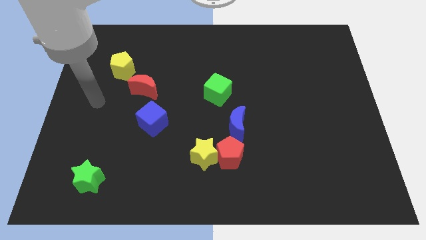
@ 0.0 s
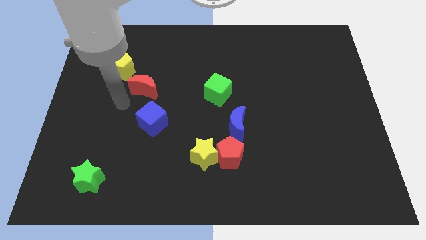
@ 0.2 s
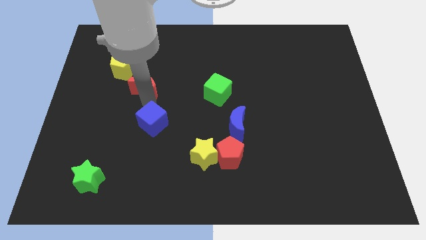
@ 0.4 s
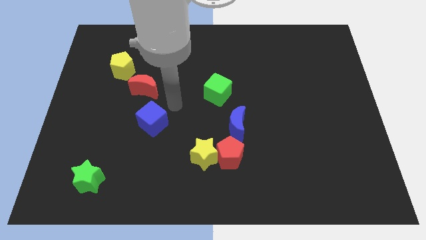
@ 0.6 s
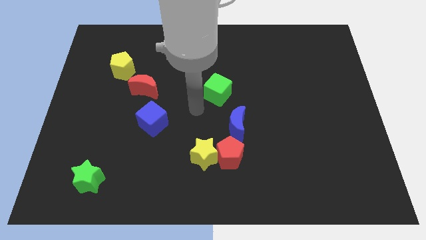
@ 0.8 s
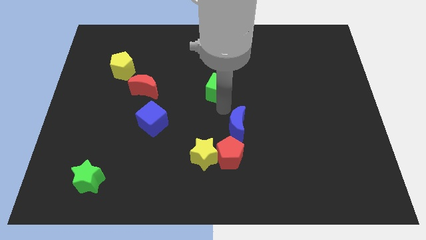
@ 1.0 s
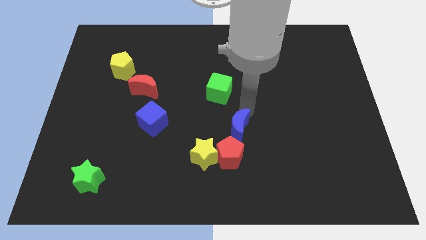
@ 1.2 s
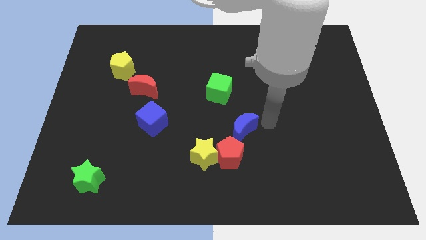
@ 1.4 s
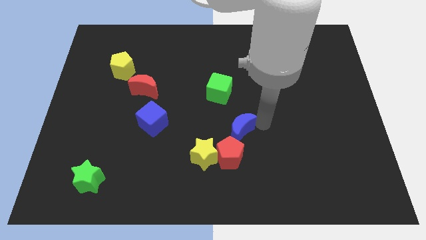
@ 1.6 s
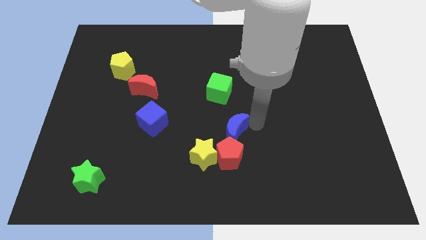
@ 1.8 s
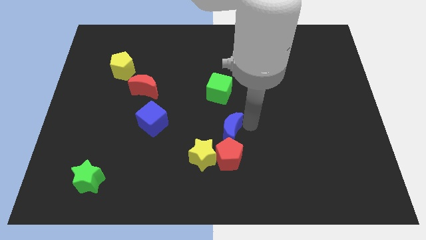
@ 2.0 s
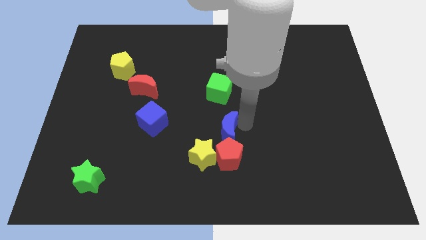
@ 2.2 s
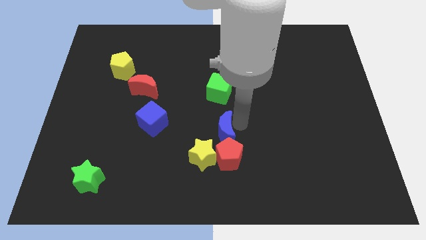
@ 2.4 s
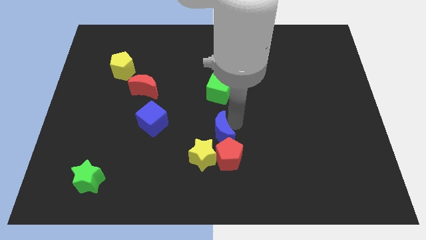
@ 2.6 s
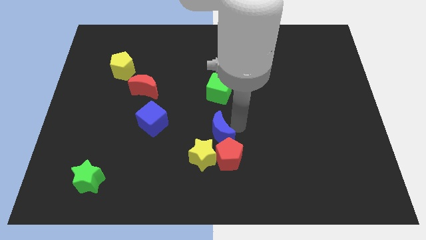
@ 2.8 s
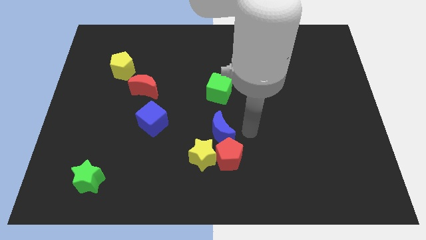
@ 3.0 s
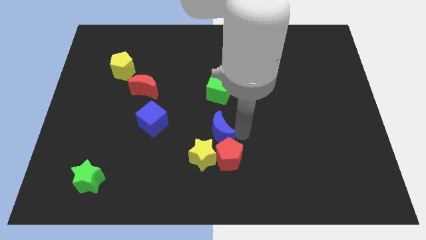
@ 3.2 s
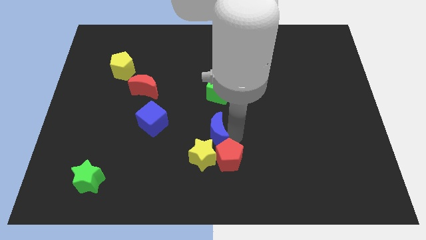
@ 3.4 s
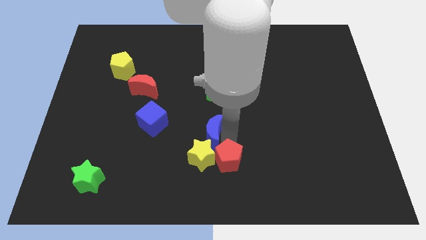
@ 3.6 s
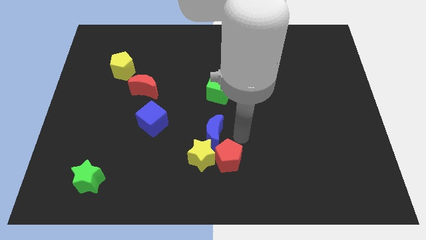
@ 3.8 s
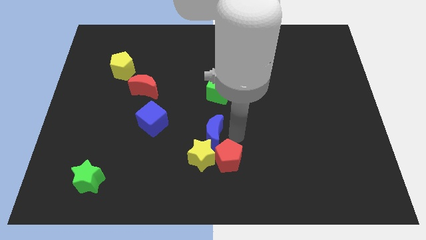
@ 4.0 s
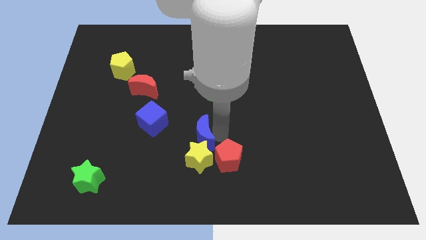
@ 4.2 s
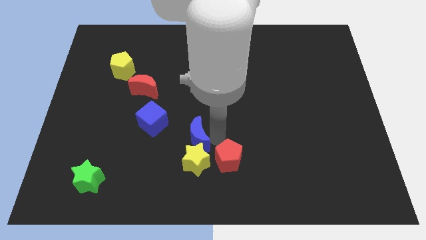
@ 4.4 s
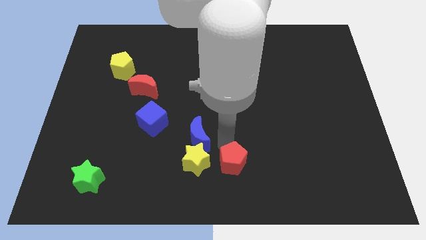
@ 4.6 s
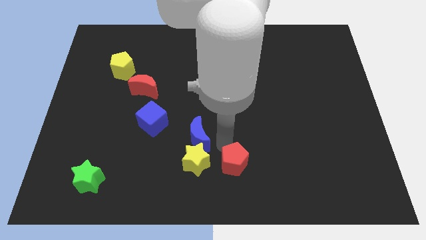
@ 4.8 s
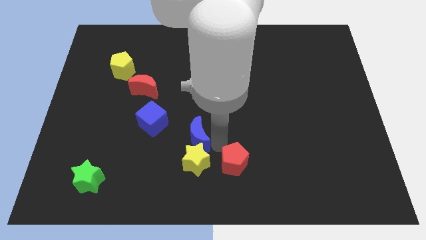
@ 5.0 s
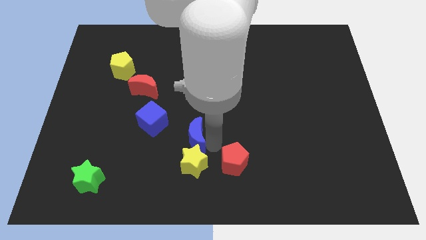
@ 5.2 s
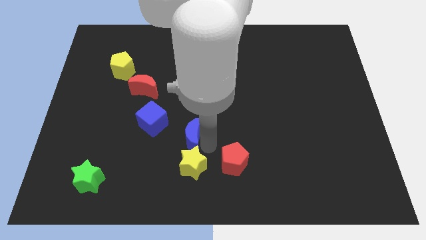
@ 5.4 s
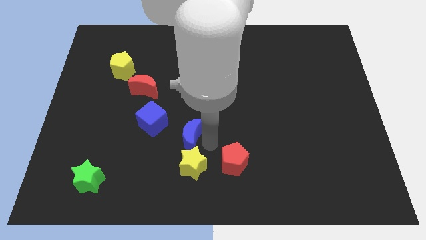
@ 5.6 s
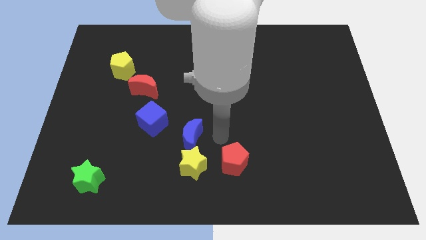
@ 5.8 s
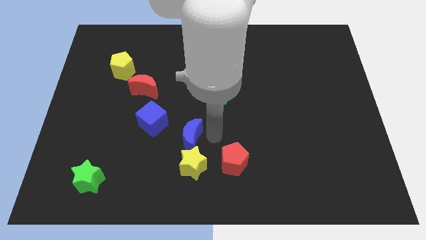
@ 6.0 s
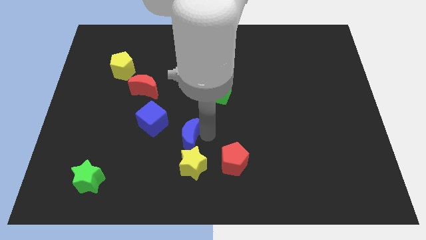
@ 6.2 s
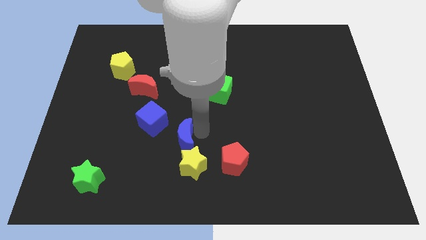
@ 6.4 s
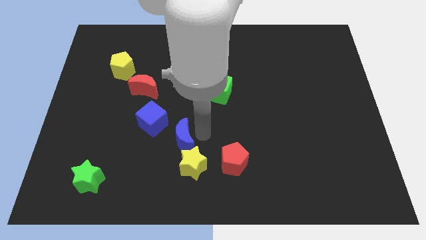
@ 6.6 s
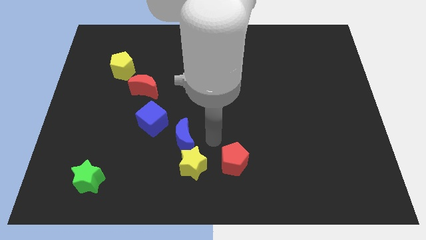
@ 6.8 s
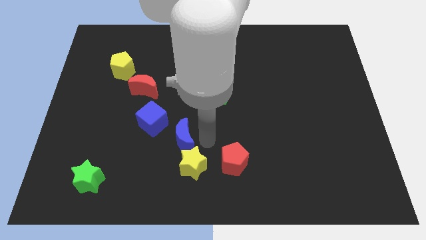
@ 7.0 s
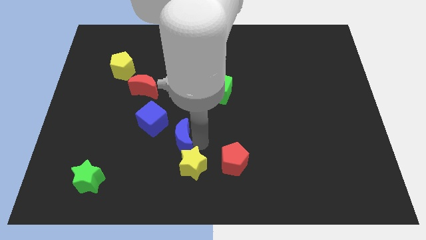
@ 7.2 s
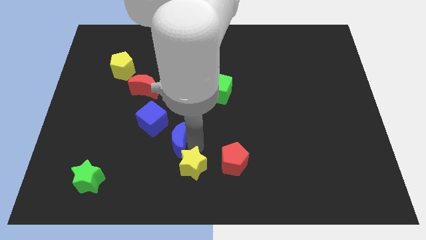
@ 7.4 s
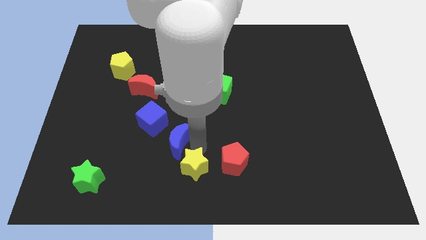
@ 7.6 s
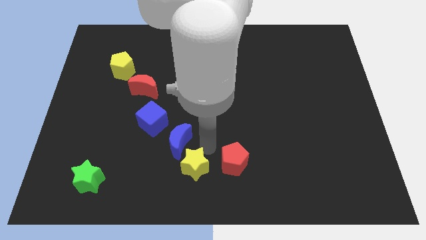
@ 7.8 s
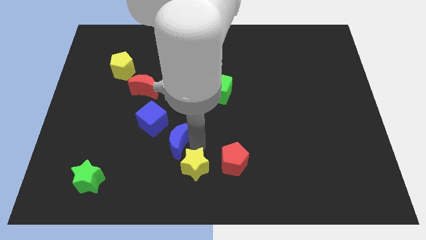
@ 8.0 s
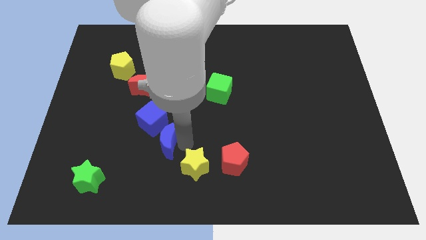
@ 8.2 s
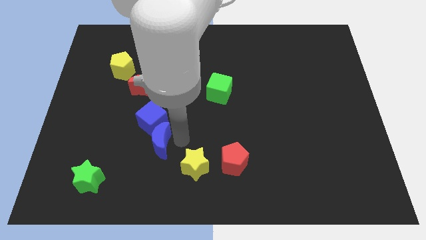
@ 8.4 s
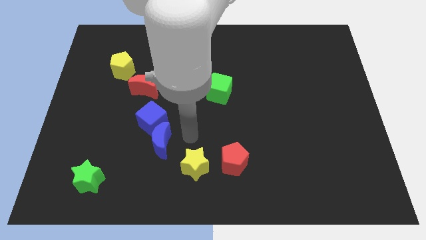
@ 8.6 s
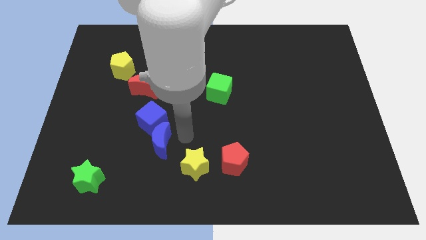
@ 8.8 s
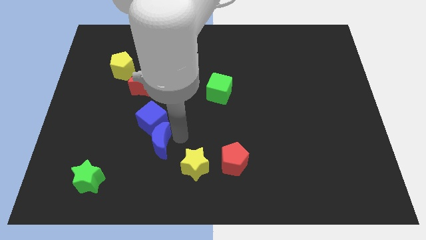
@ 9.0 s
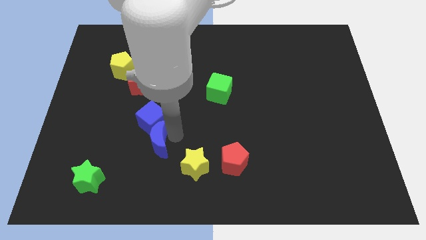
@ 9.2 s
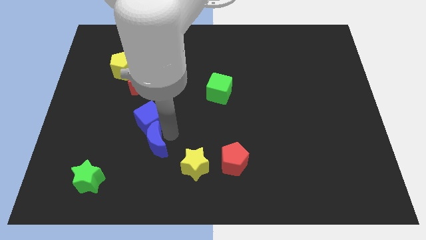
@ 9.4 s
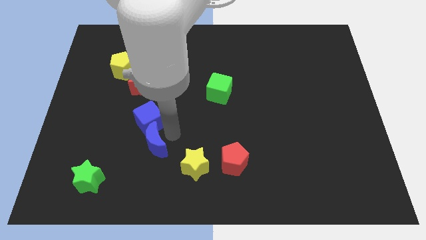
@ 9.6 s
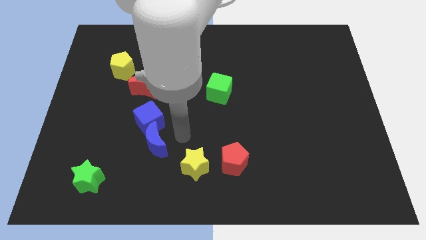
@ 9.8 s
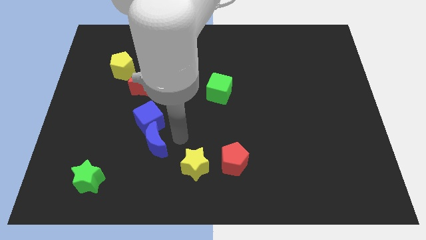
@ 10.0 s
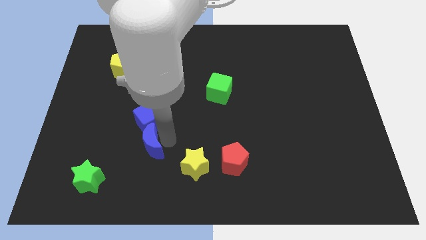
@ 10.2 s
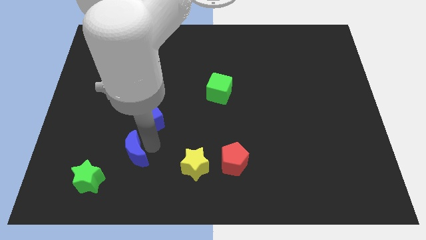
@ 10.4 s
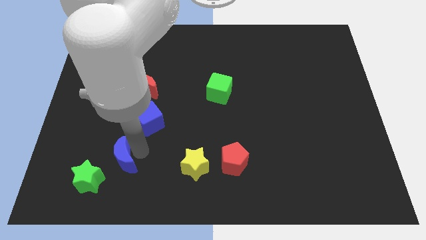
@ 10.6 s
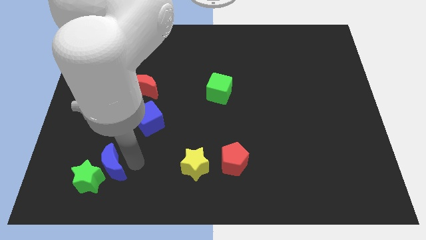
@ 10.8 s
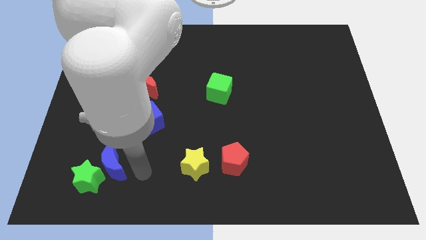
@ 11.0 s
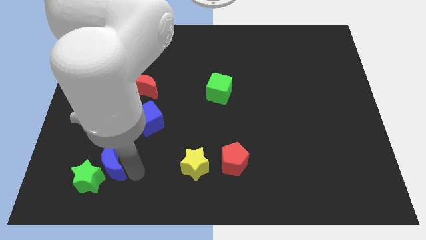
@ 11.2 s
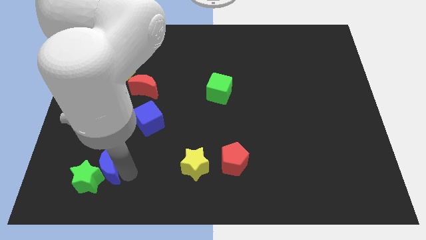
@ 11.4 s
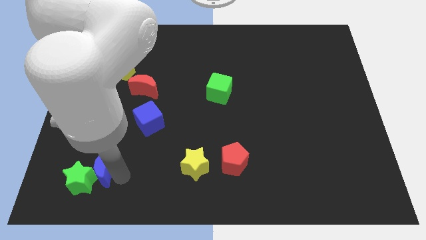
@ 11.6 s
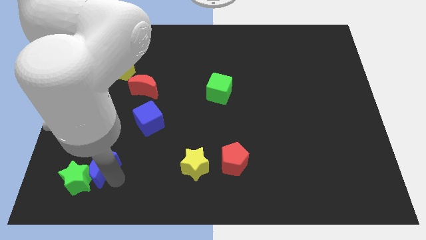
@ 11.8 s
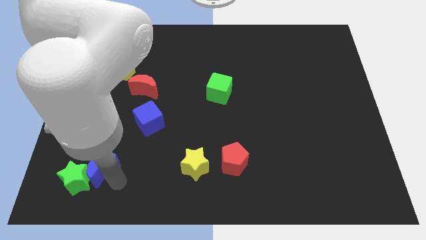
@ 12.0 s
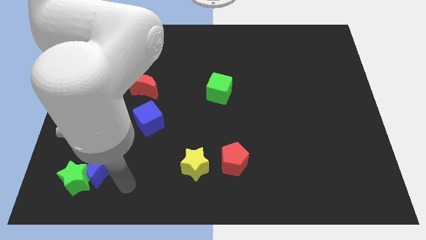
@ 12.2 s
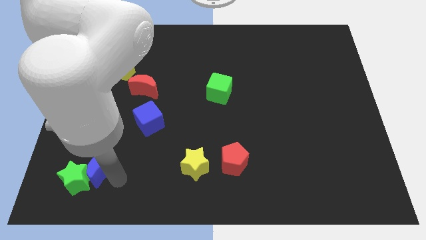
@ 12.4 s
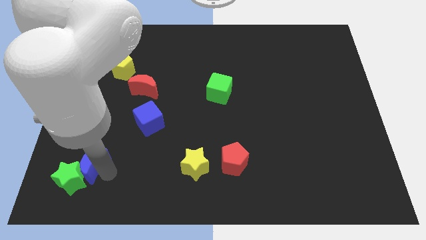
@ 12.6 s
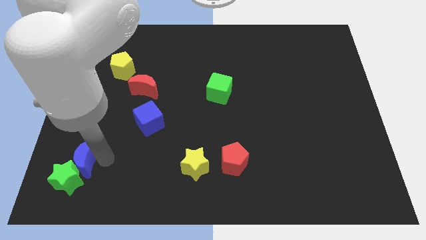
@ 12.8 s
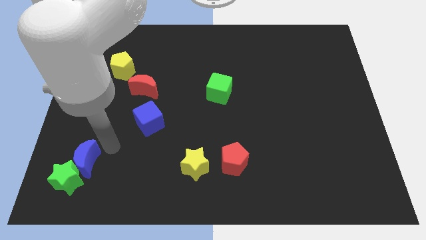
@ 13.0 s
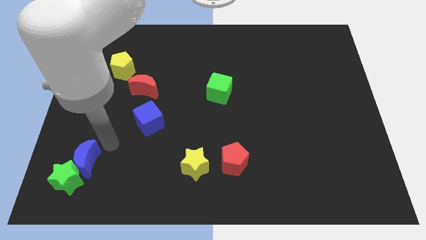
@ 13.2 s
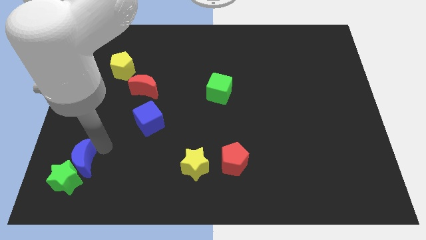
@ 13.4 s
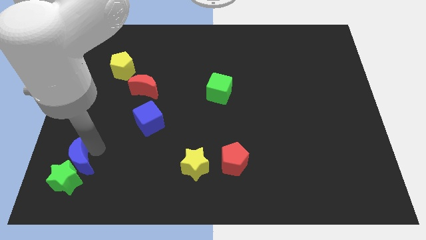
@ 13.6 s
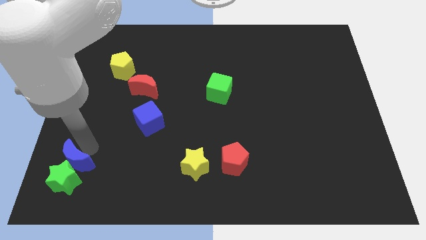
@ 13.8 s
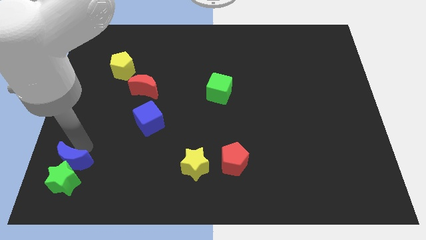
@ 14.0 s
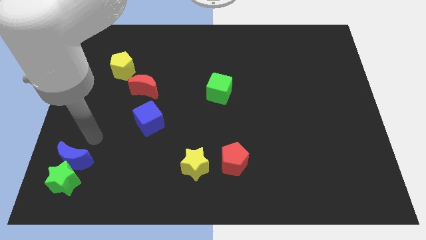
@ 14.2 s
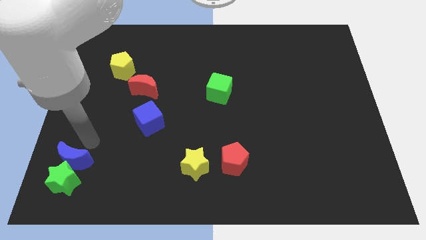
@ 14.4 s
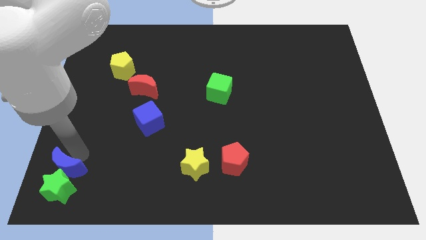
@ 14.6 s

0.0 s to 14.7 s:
slide the blue moon to the bottom left corner

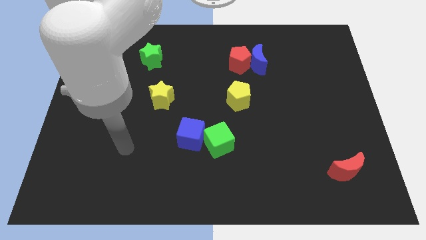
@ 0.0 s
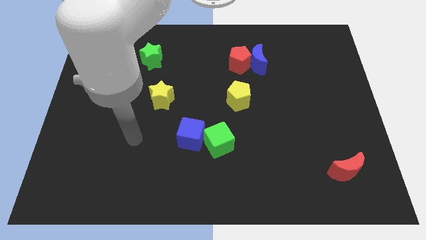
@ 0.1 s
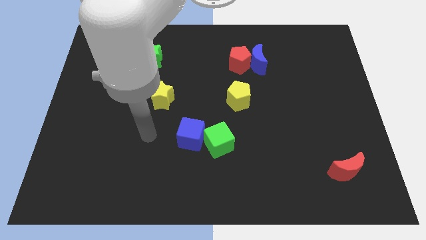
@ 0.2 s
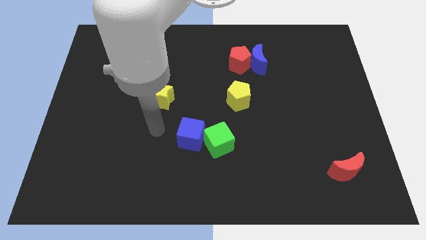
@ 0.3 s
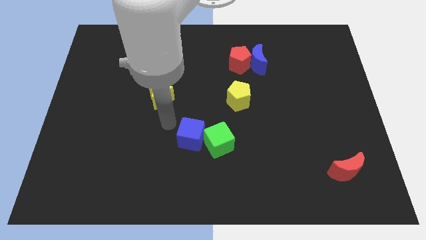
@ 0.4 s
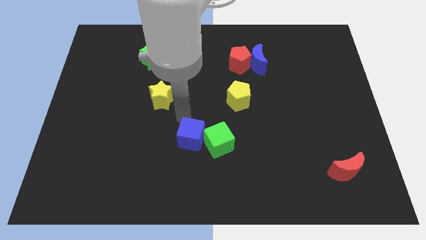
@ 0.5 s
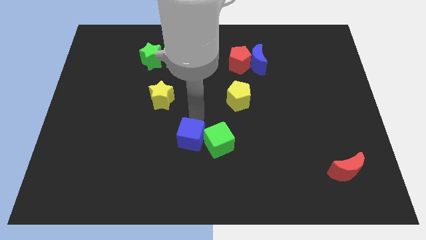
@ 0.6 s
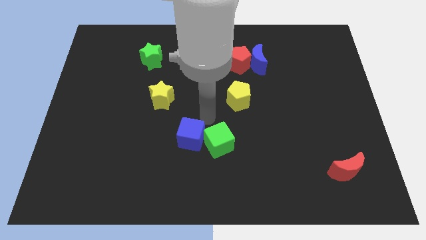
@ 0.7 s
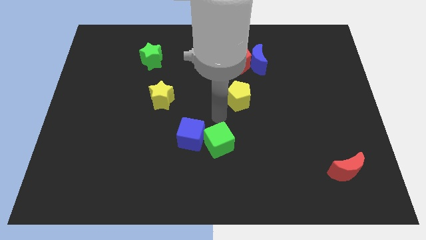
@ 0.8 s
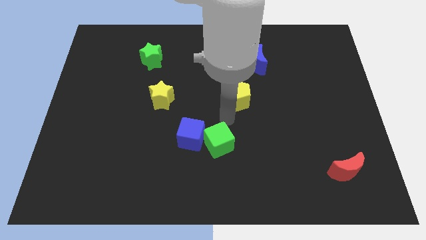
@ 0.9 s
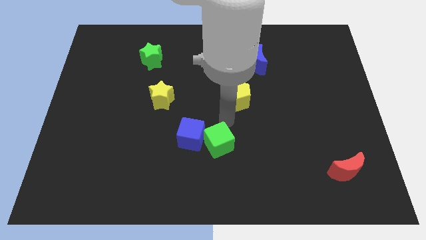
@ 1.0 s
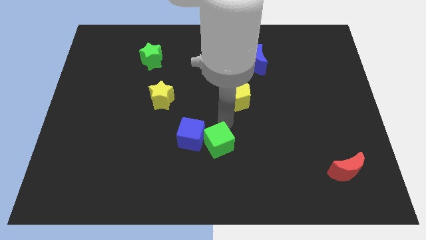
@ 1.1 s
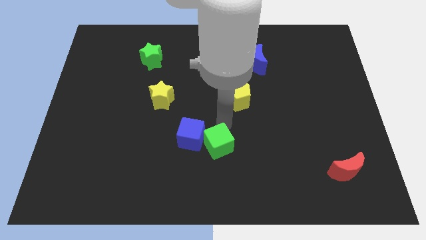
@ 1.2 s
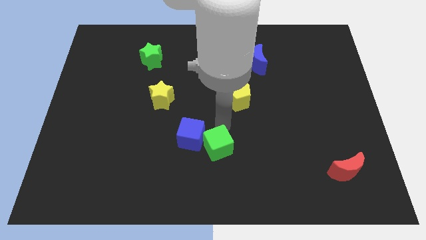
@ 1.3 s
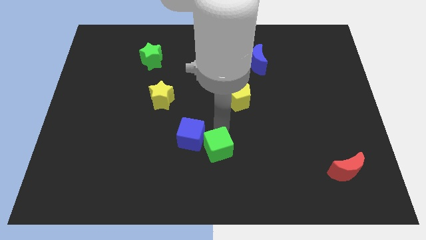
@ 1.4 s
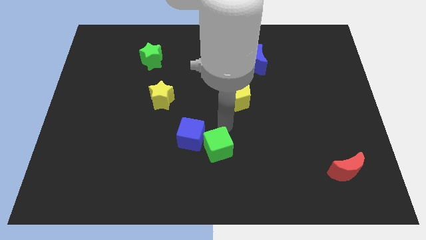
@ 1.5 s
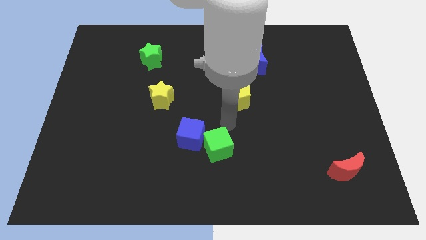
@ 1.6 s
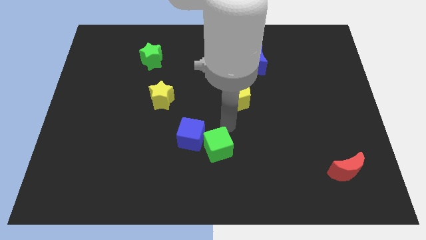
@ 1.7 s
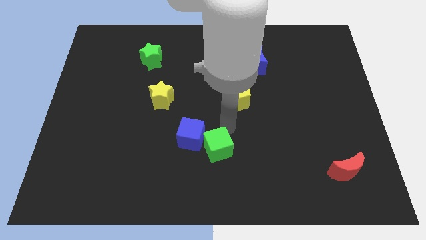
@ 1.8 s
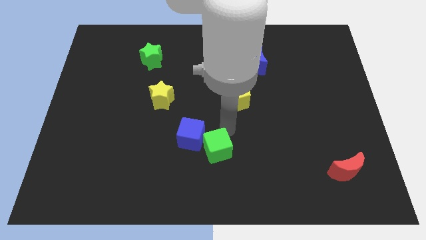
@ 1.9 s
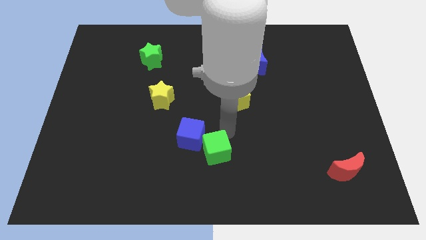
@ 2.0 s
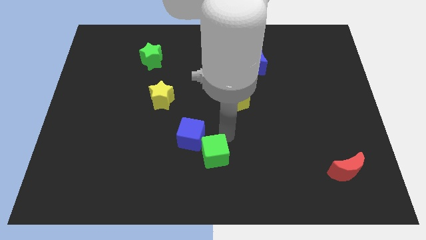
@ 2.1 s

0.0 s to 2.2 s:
put the green cube to the bottom side
